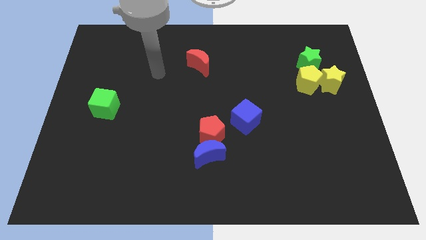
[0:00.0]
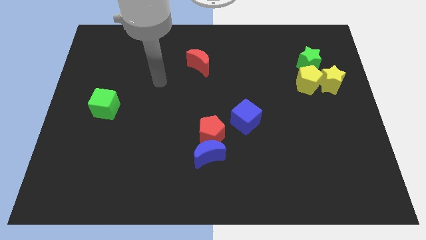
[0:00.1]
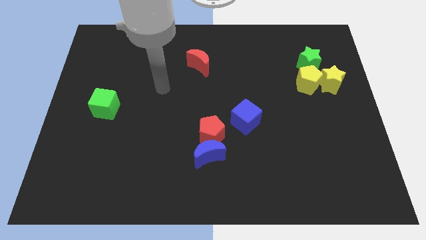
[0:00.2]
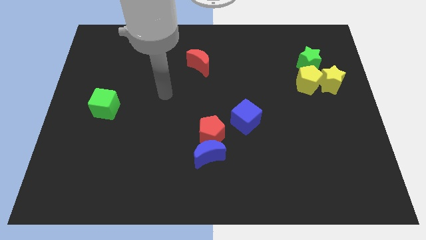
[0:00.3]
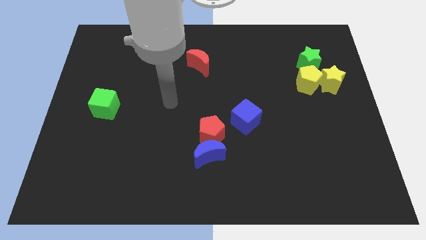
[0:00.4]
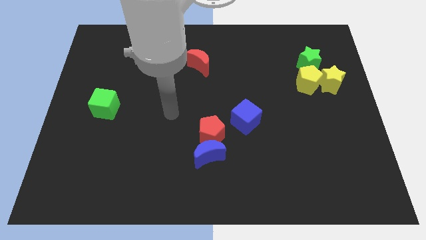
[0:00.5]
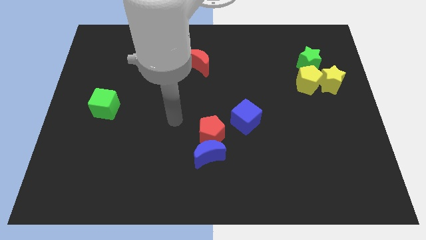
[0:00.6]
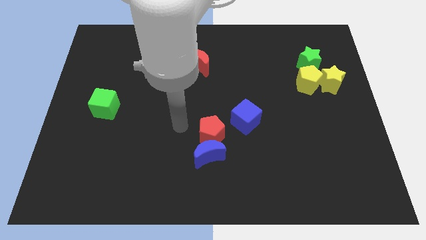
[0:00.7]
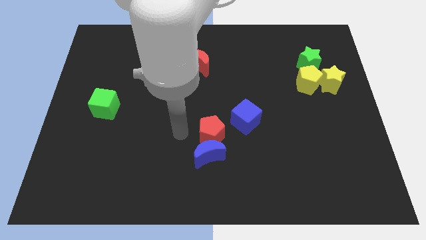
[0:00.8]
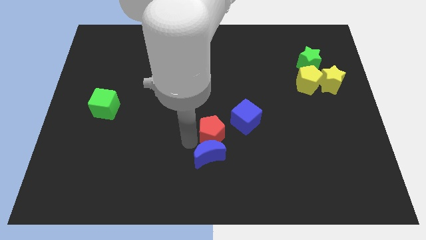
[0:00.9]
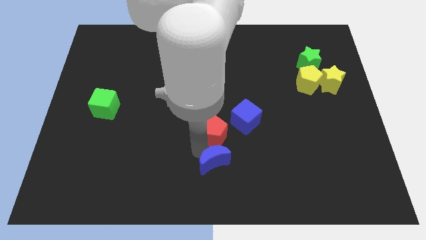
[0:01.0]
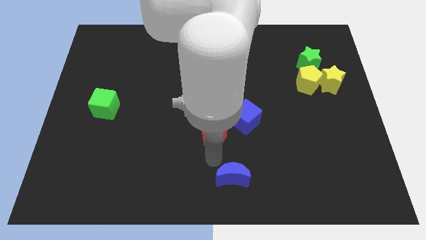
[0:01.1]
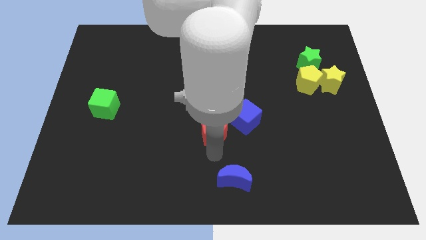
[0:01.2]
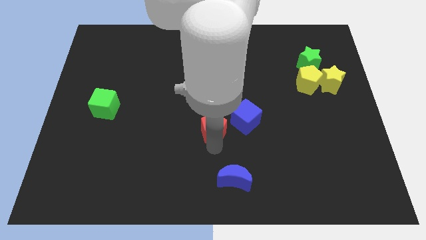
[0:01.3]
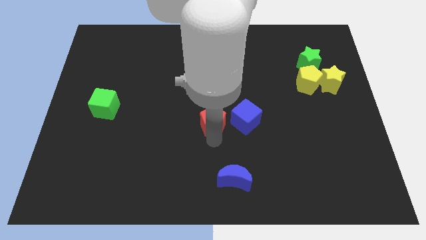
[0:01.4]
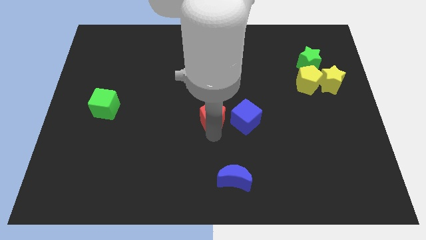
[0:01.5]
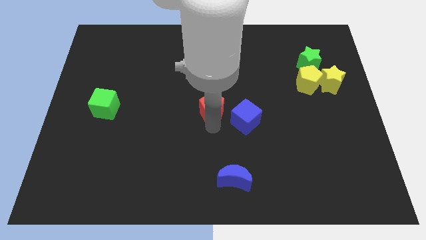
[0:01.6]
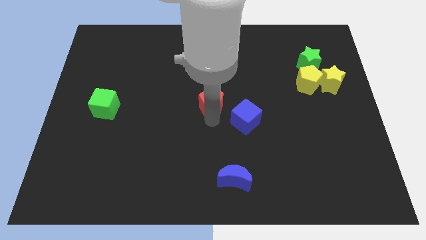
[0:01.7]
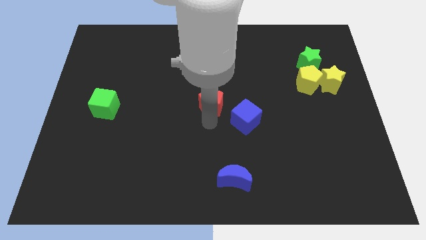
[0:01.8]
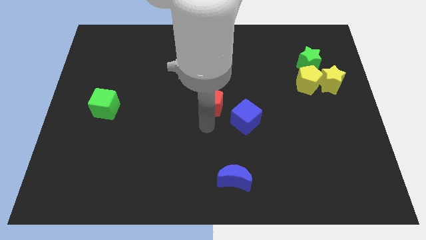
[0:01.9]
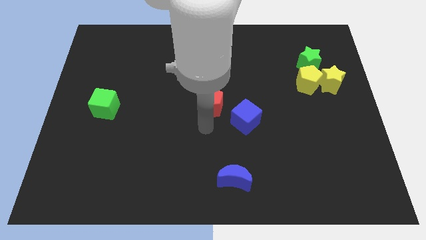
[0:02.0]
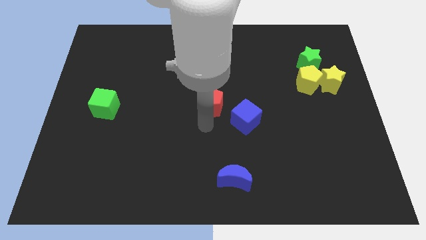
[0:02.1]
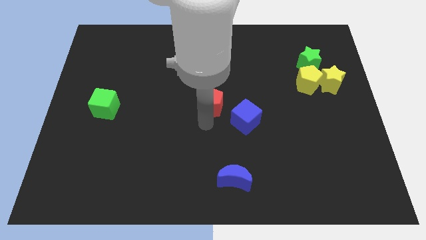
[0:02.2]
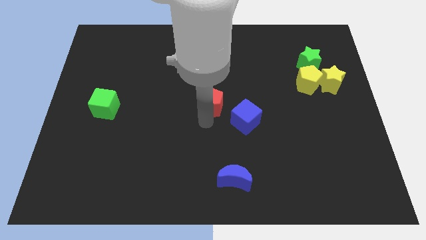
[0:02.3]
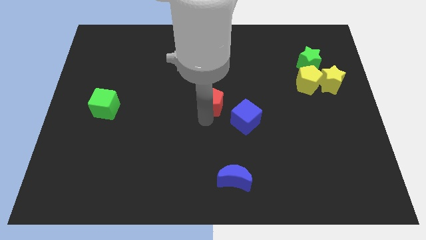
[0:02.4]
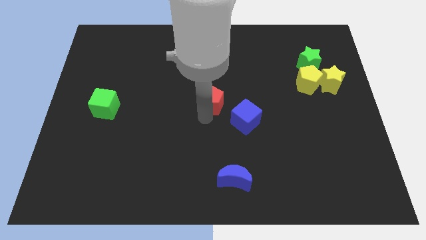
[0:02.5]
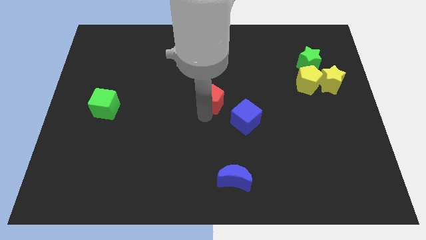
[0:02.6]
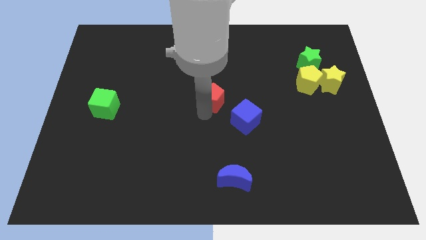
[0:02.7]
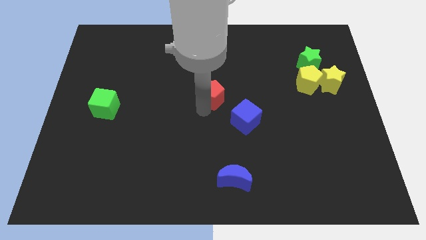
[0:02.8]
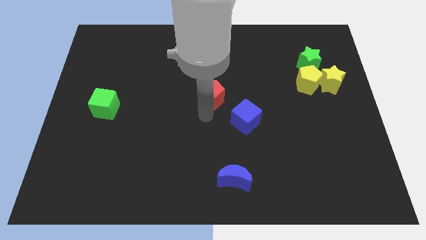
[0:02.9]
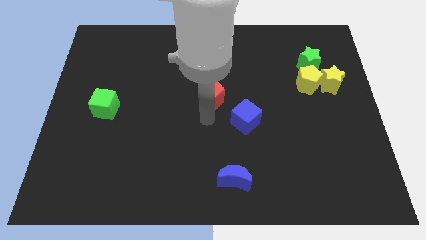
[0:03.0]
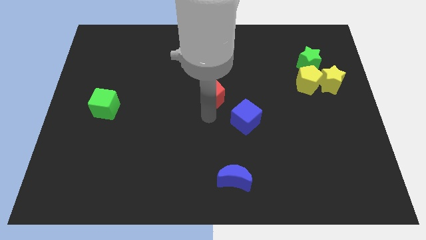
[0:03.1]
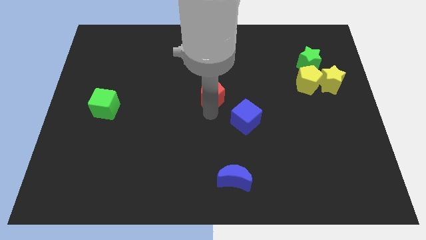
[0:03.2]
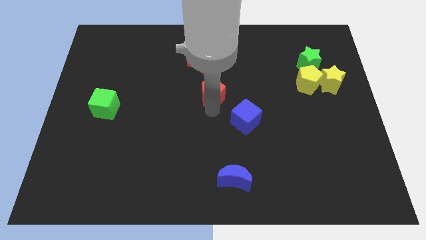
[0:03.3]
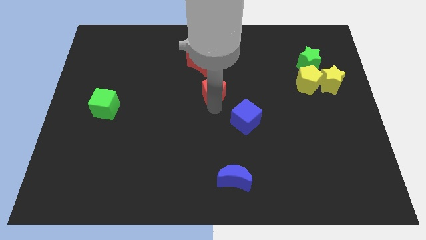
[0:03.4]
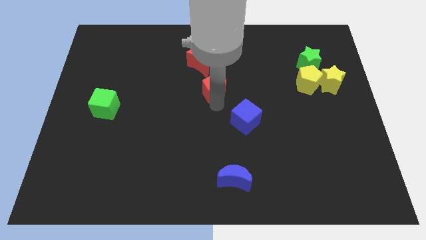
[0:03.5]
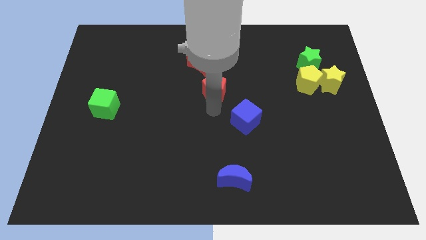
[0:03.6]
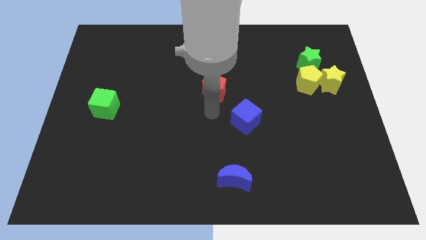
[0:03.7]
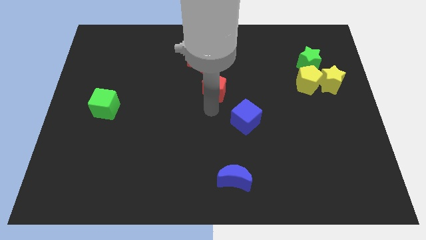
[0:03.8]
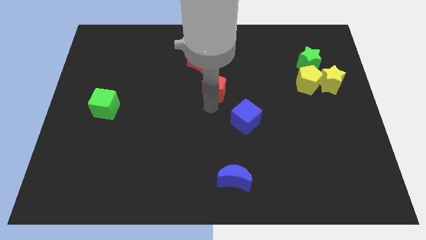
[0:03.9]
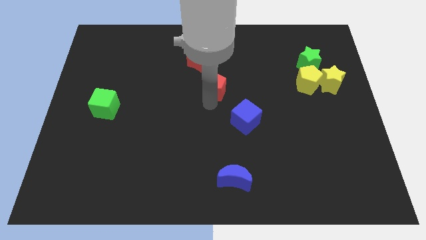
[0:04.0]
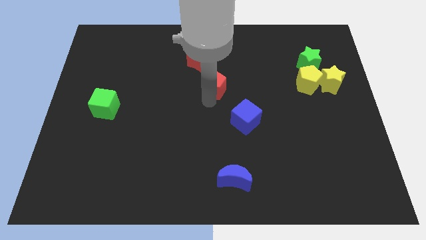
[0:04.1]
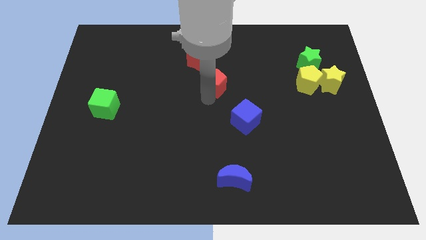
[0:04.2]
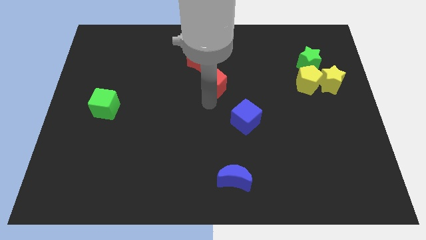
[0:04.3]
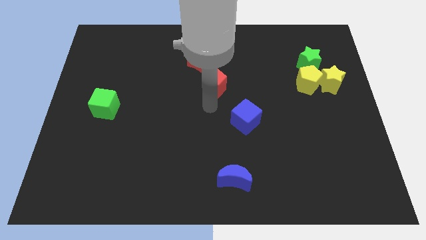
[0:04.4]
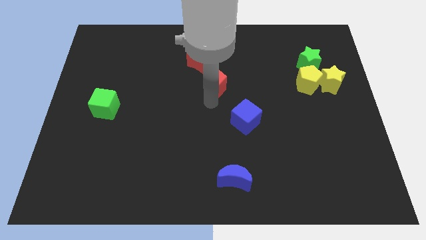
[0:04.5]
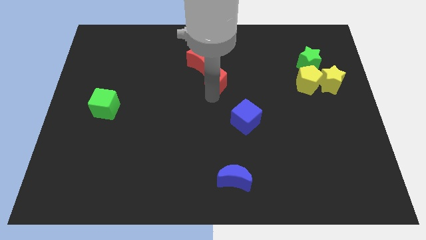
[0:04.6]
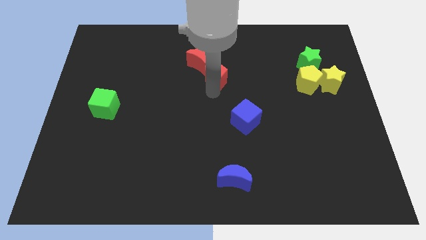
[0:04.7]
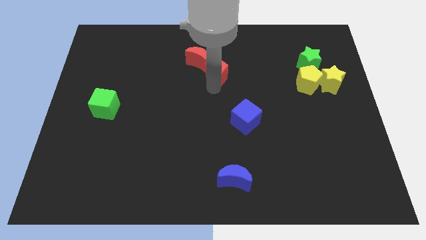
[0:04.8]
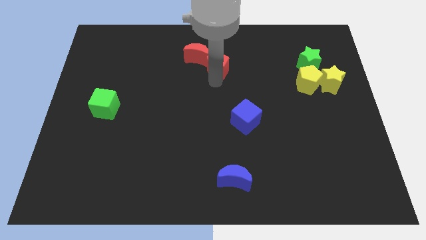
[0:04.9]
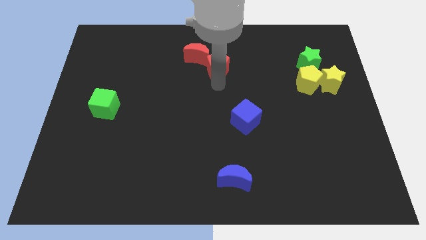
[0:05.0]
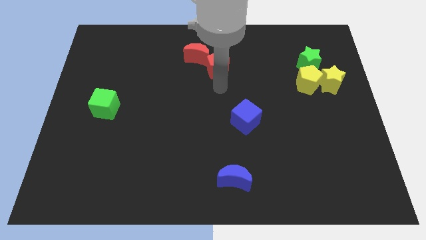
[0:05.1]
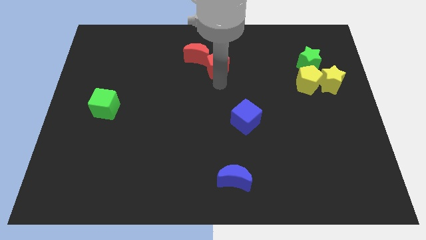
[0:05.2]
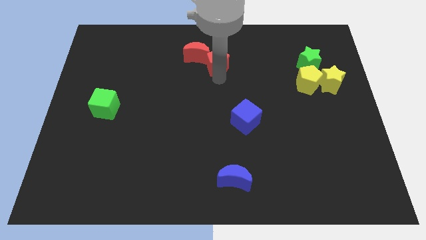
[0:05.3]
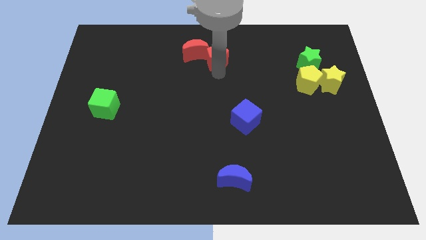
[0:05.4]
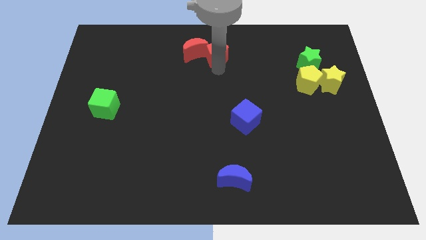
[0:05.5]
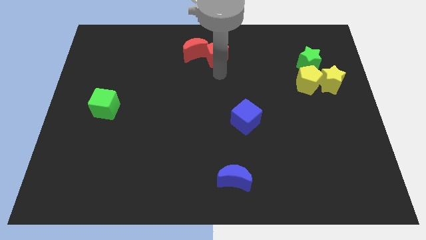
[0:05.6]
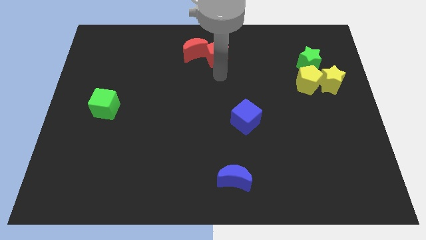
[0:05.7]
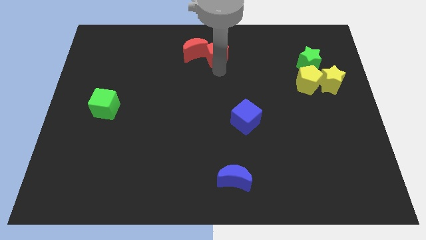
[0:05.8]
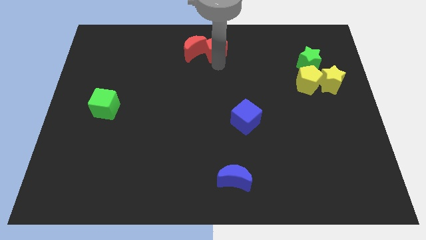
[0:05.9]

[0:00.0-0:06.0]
move the red pentagon to the towards your base
